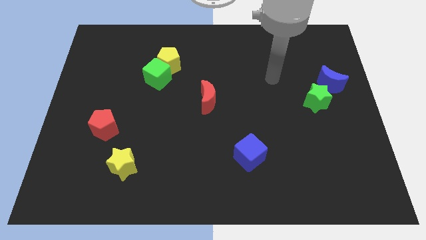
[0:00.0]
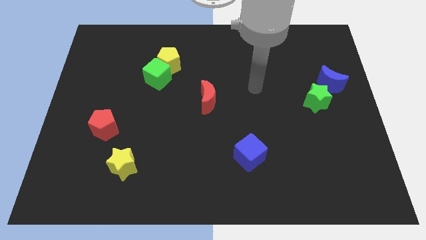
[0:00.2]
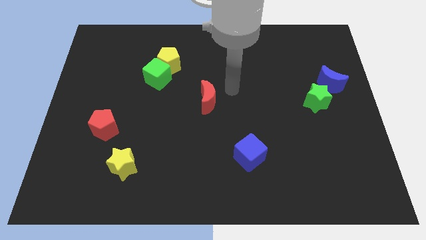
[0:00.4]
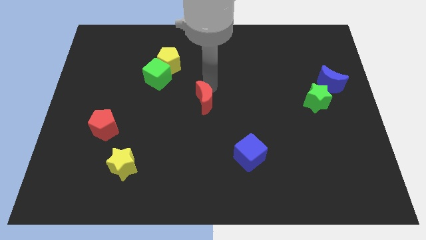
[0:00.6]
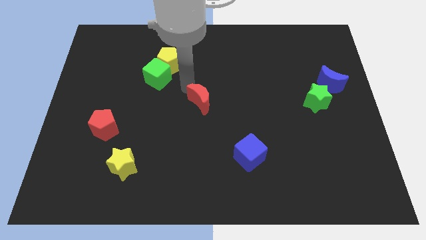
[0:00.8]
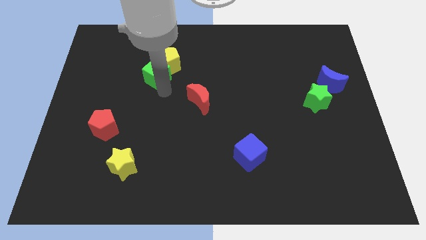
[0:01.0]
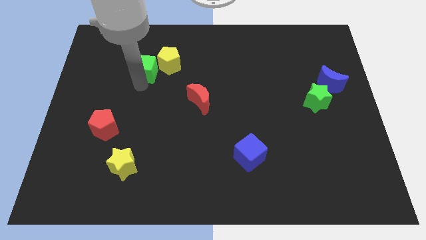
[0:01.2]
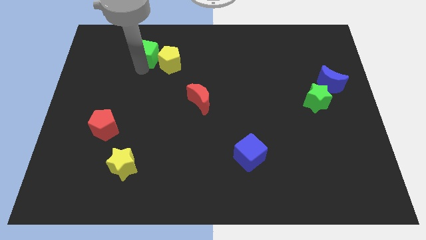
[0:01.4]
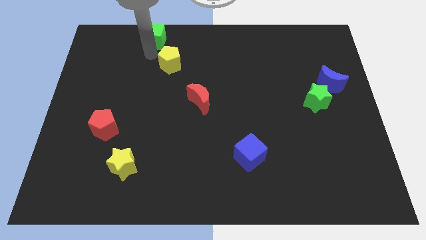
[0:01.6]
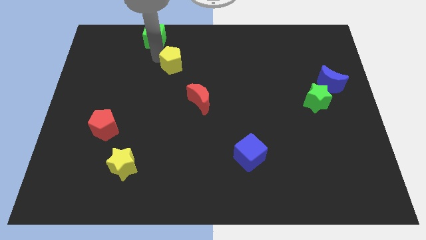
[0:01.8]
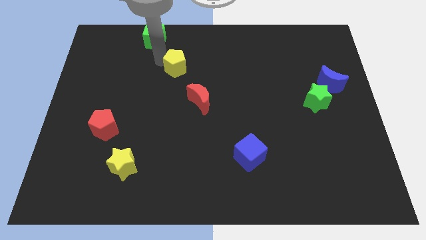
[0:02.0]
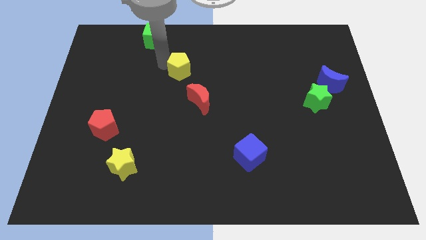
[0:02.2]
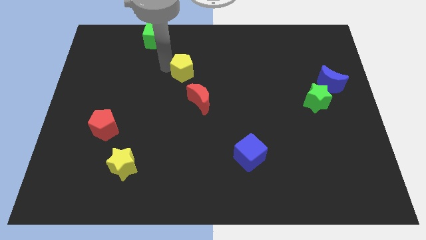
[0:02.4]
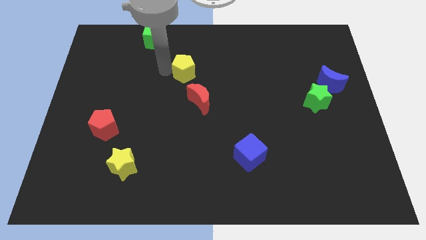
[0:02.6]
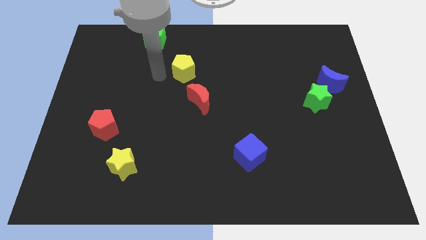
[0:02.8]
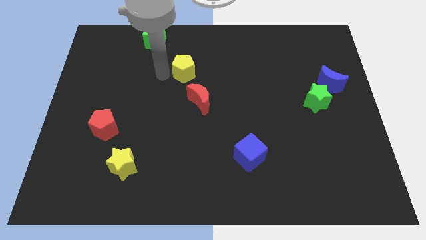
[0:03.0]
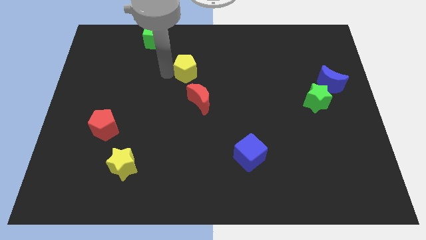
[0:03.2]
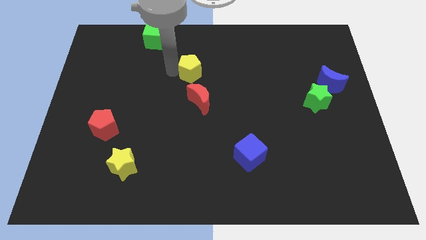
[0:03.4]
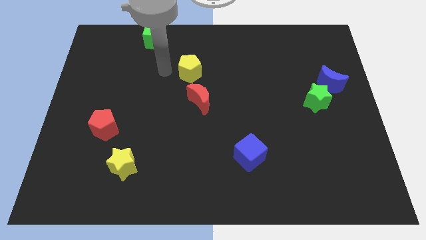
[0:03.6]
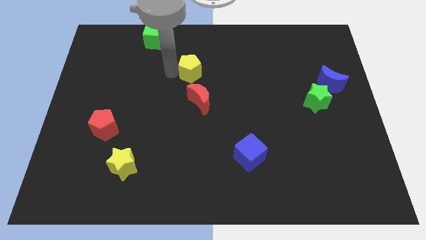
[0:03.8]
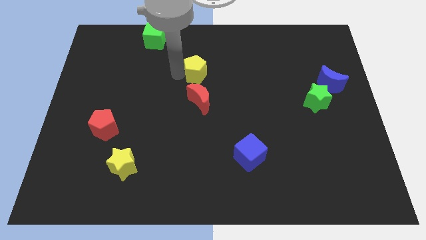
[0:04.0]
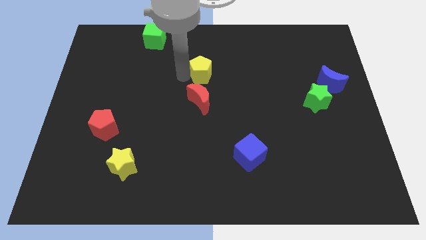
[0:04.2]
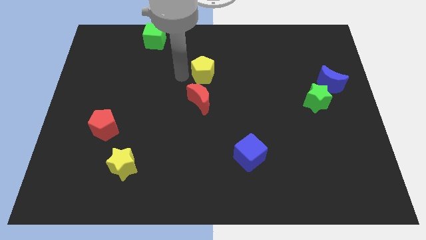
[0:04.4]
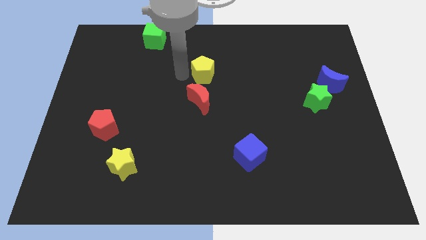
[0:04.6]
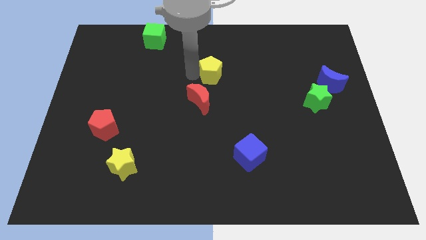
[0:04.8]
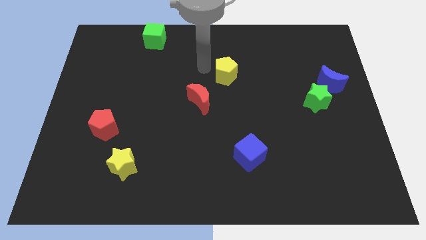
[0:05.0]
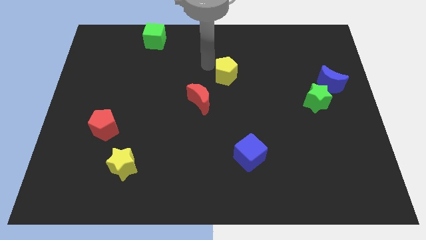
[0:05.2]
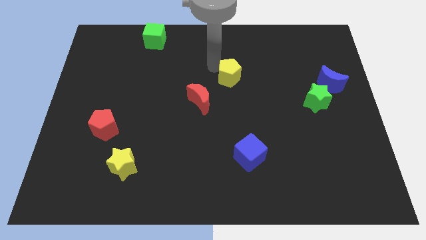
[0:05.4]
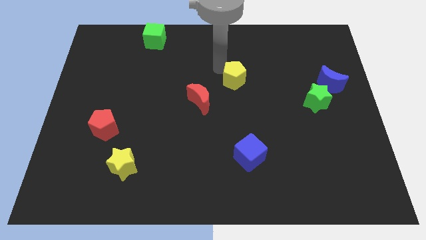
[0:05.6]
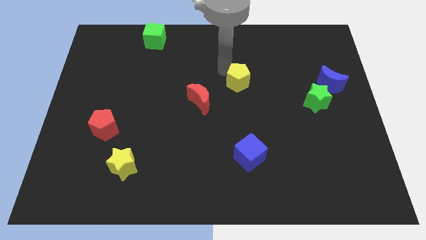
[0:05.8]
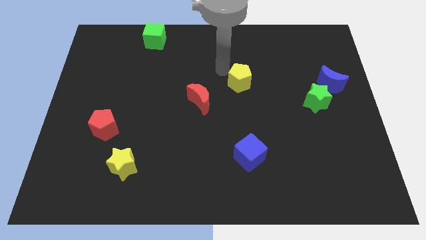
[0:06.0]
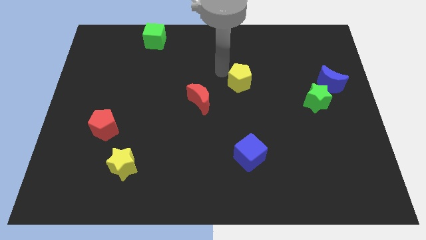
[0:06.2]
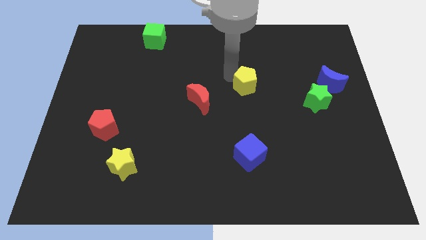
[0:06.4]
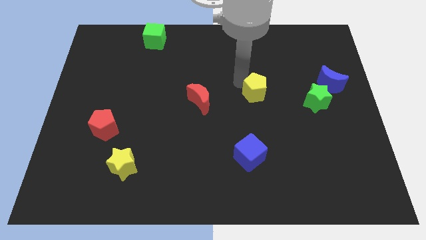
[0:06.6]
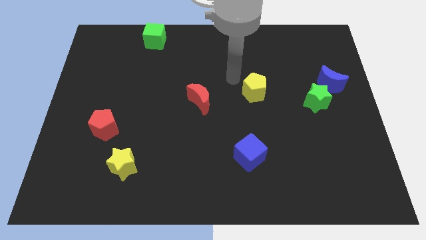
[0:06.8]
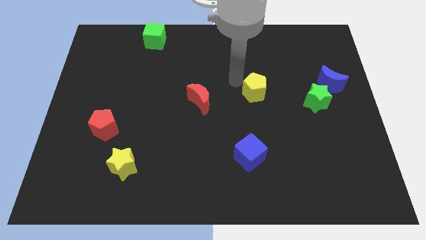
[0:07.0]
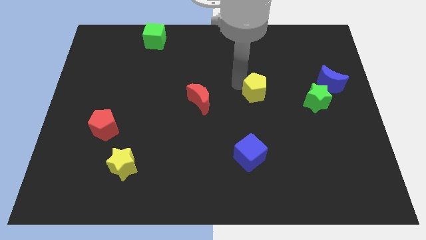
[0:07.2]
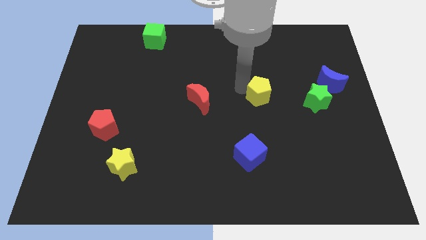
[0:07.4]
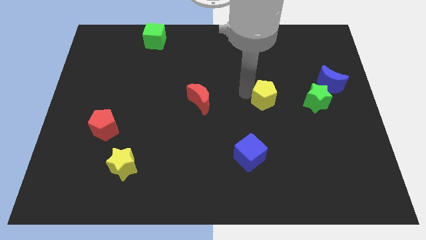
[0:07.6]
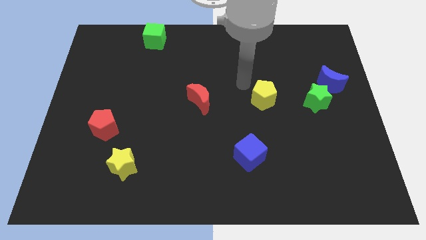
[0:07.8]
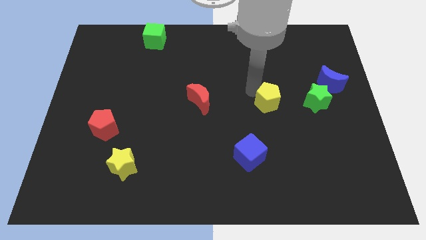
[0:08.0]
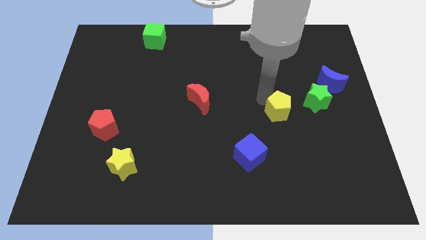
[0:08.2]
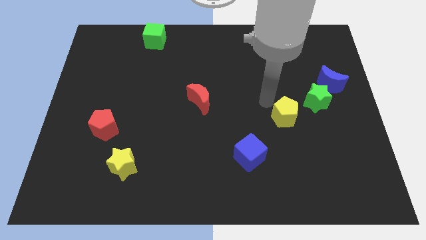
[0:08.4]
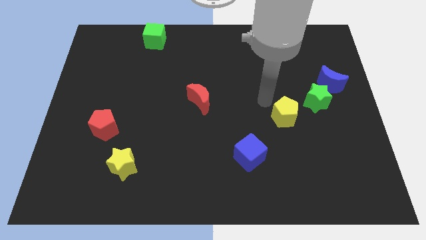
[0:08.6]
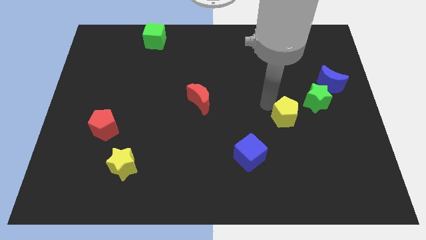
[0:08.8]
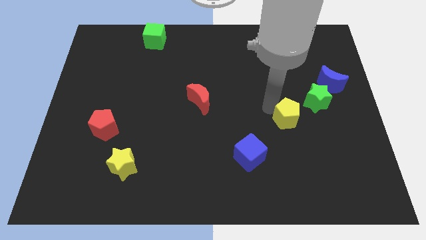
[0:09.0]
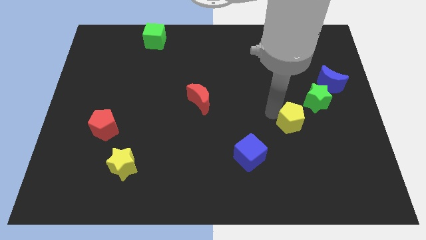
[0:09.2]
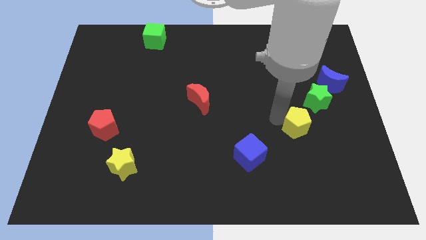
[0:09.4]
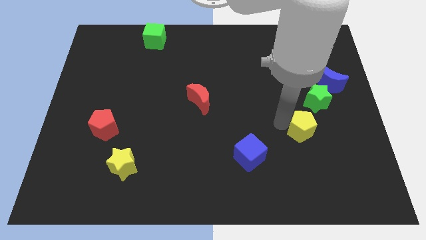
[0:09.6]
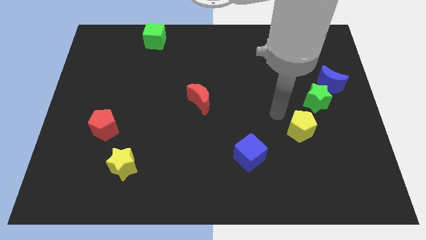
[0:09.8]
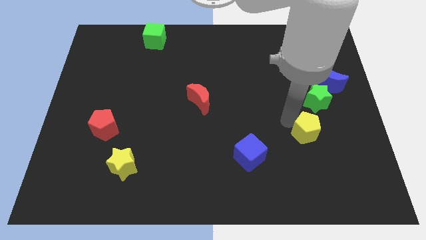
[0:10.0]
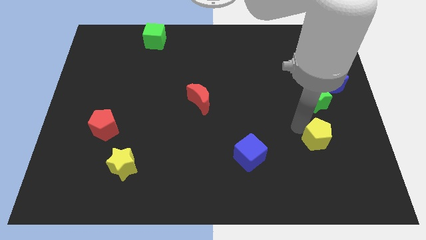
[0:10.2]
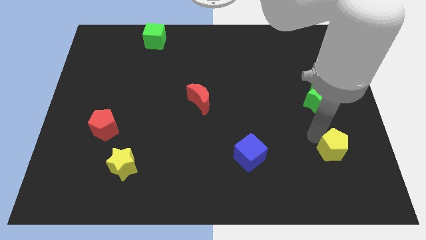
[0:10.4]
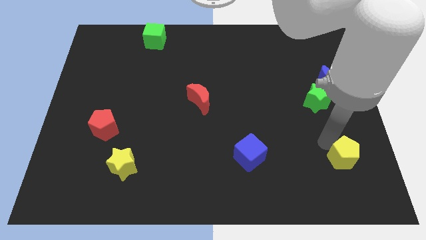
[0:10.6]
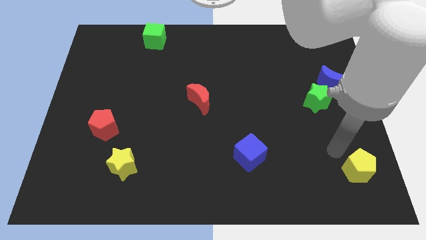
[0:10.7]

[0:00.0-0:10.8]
put the yellow pentagon to the bottom right of the board

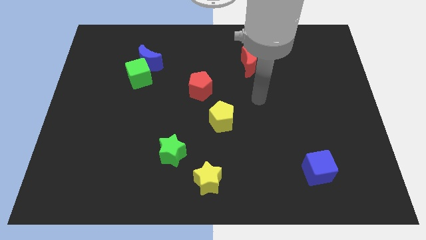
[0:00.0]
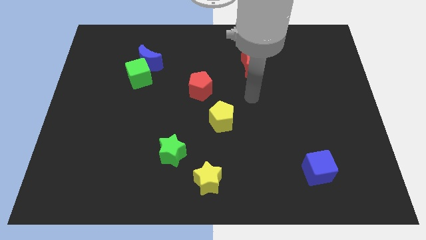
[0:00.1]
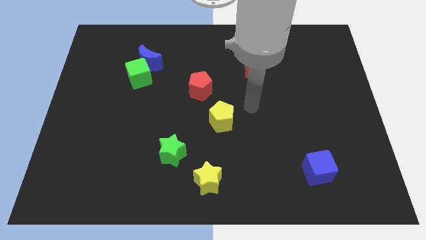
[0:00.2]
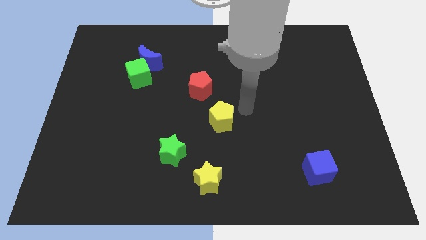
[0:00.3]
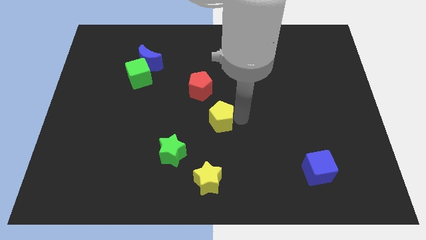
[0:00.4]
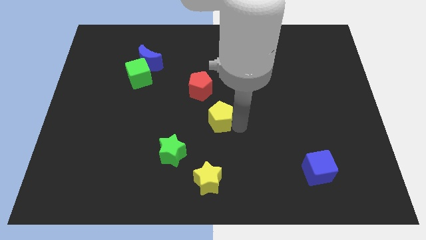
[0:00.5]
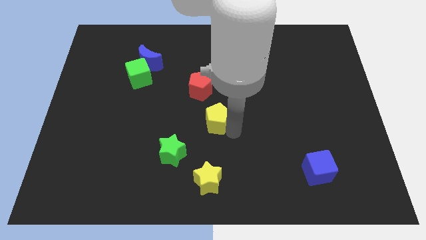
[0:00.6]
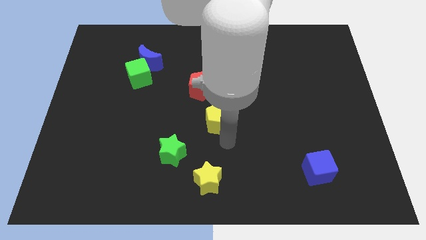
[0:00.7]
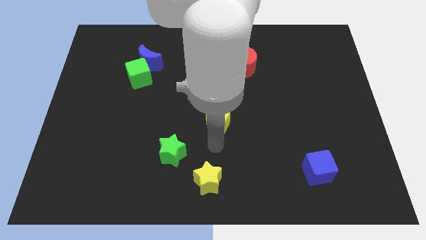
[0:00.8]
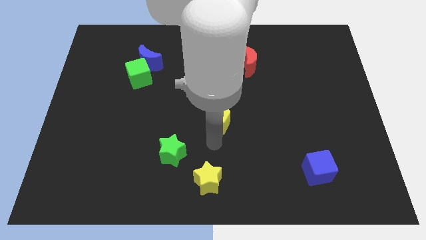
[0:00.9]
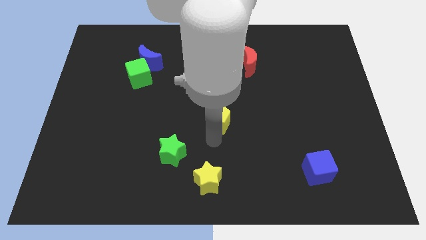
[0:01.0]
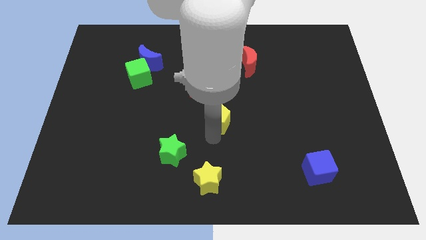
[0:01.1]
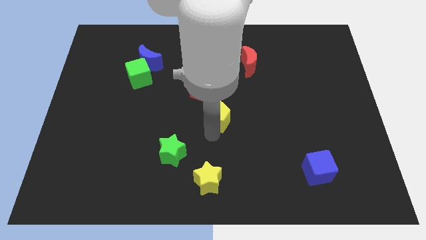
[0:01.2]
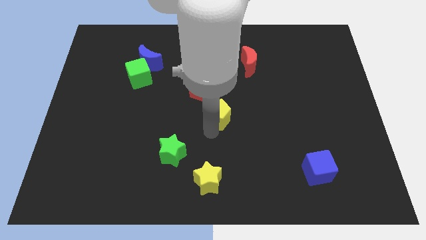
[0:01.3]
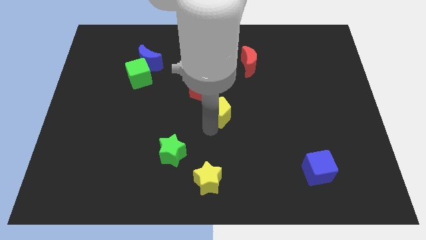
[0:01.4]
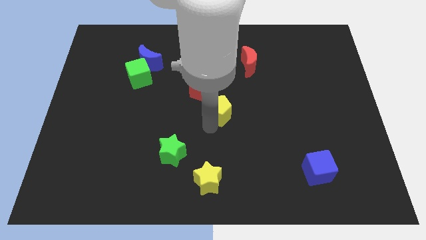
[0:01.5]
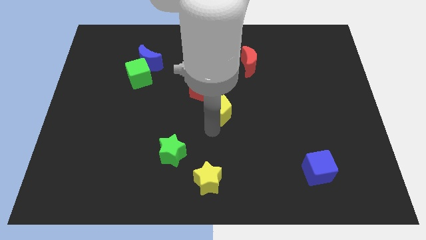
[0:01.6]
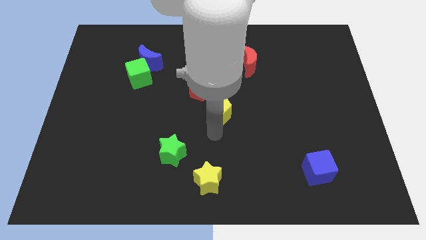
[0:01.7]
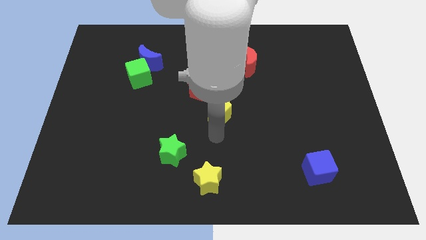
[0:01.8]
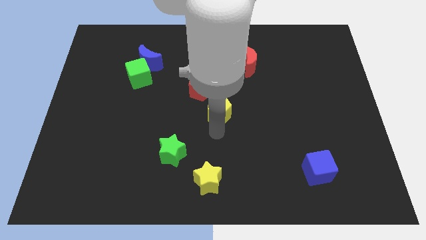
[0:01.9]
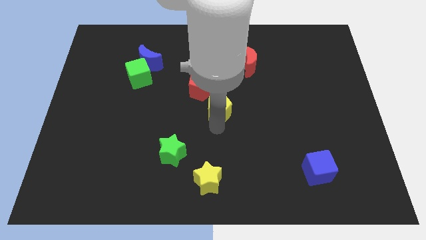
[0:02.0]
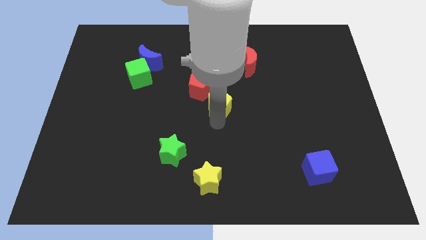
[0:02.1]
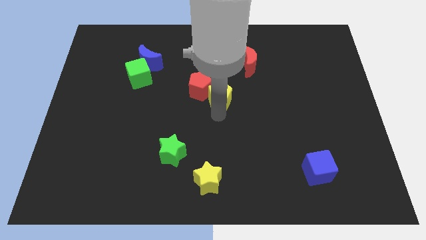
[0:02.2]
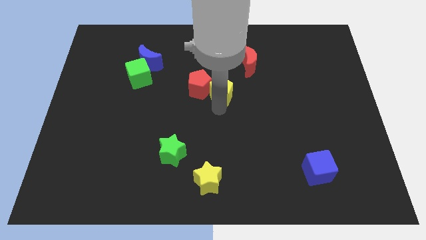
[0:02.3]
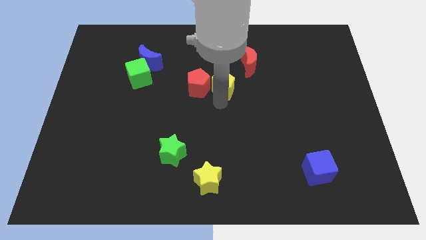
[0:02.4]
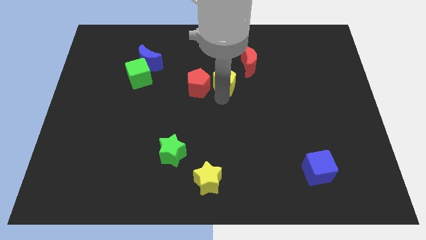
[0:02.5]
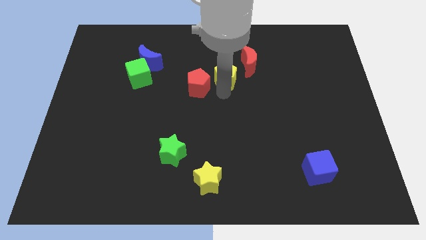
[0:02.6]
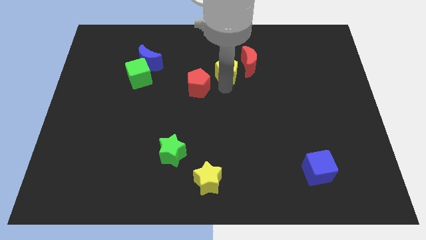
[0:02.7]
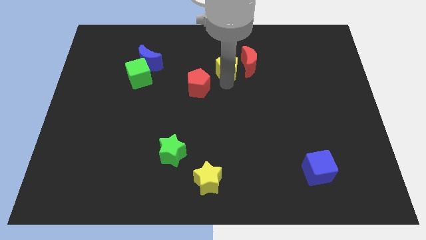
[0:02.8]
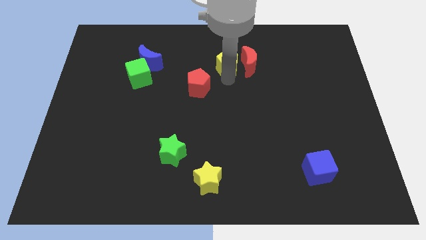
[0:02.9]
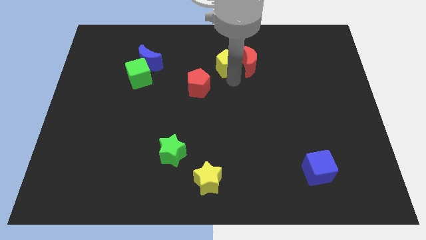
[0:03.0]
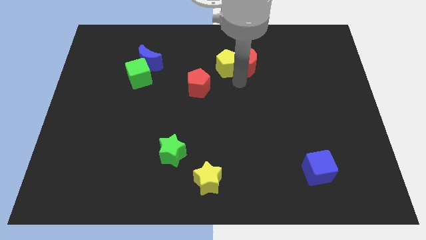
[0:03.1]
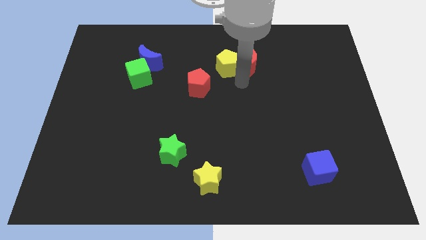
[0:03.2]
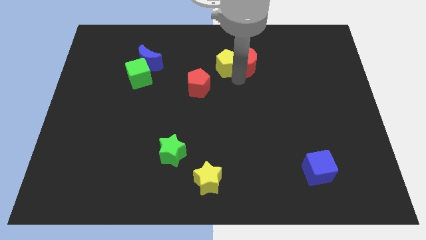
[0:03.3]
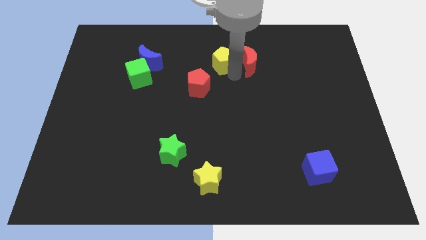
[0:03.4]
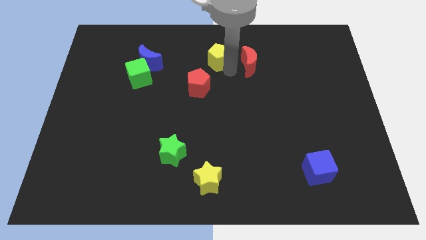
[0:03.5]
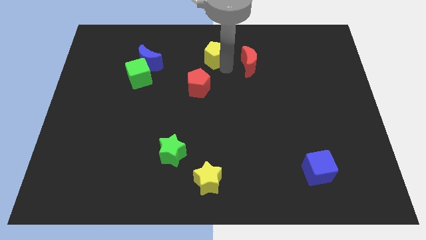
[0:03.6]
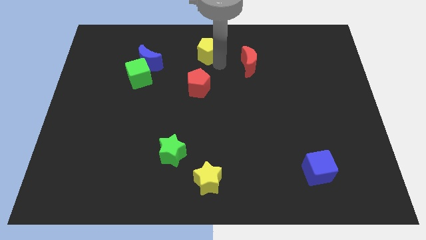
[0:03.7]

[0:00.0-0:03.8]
slide the yellow pentagon to the top side
